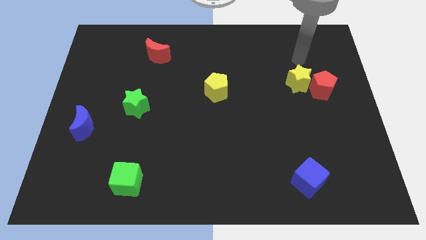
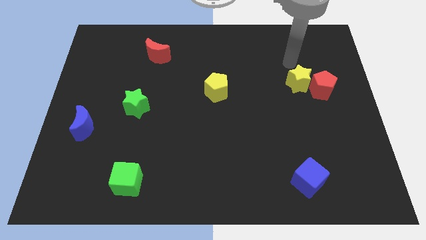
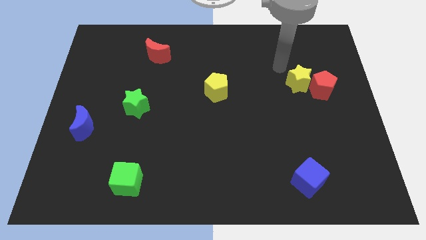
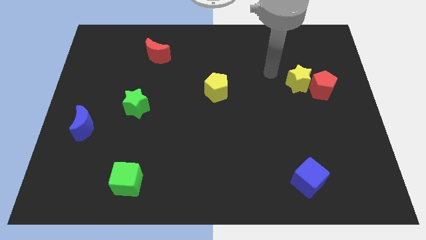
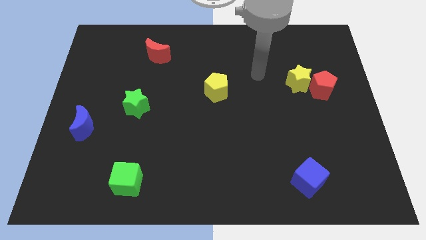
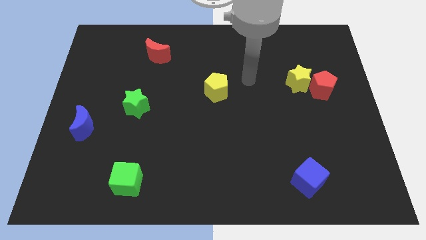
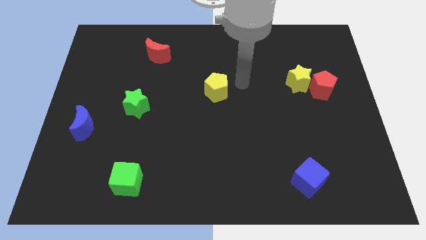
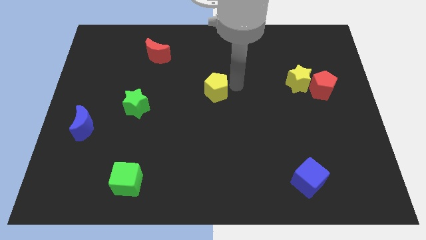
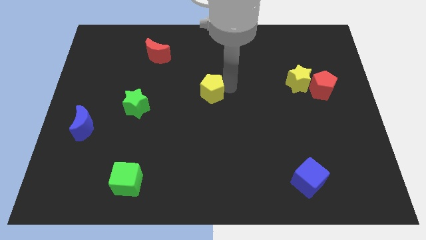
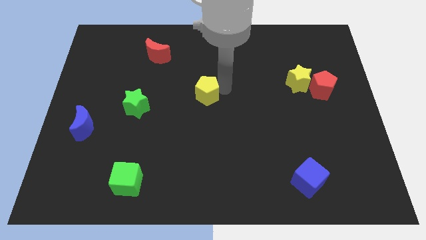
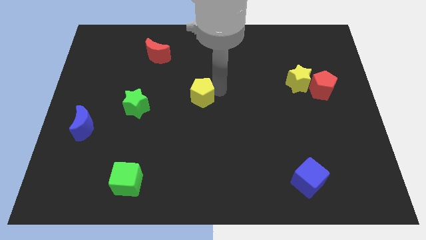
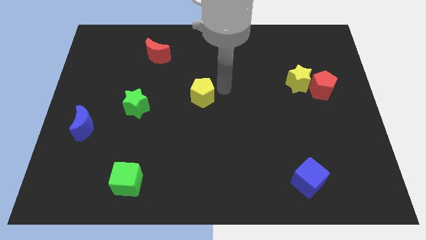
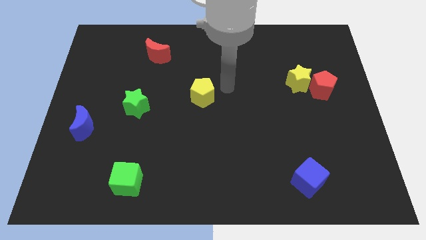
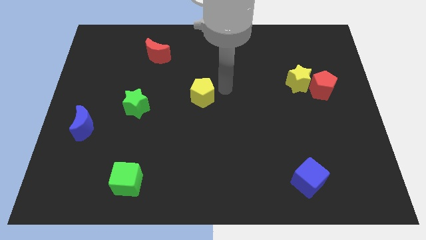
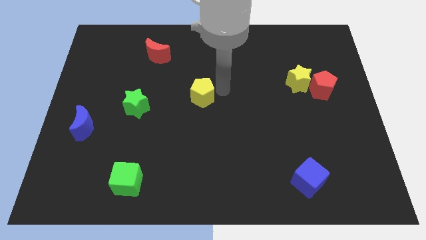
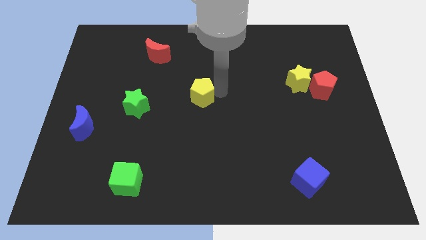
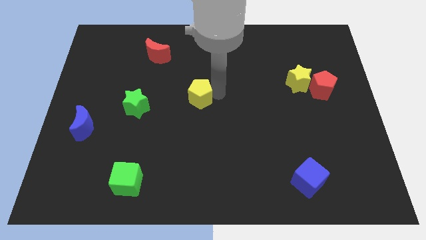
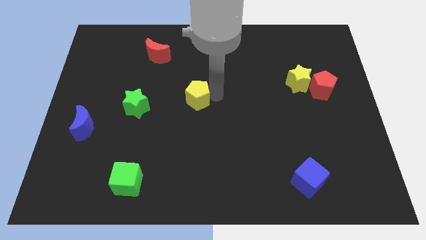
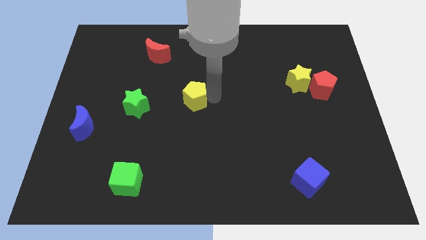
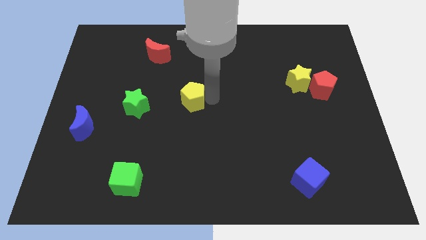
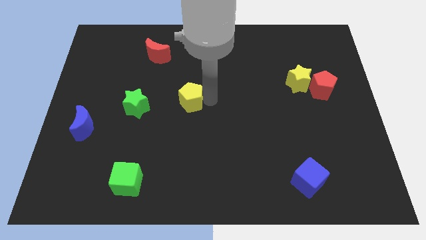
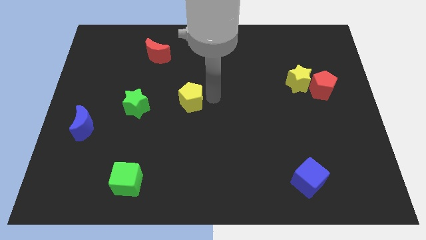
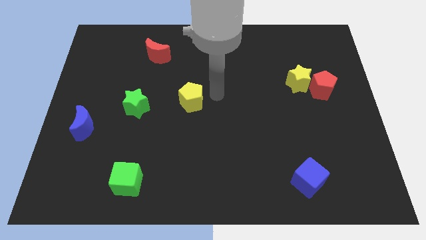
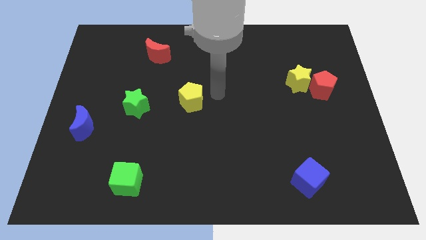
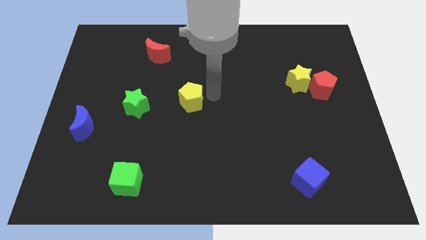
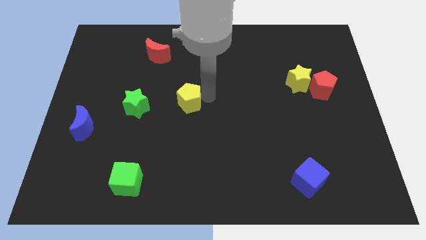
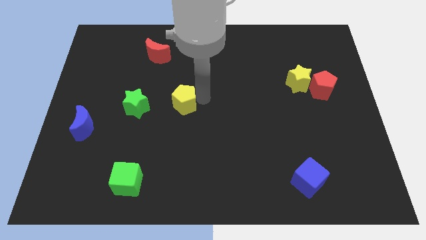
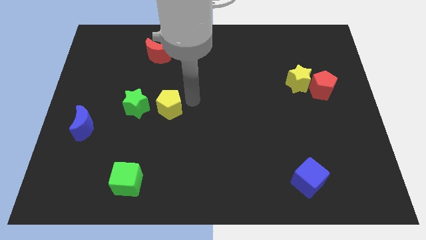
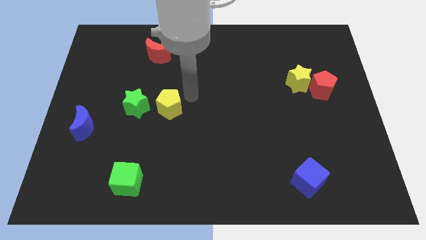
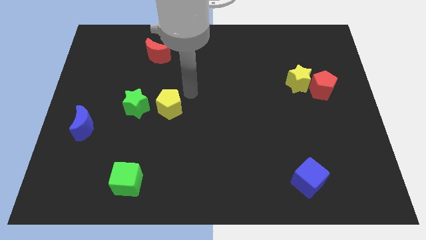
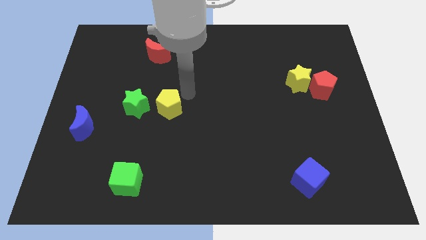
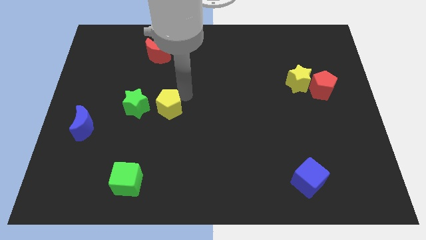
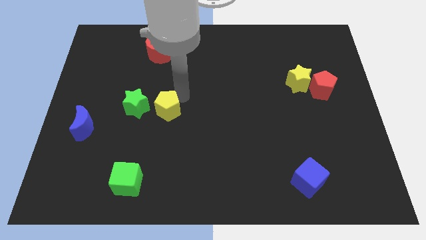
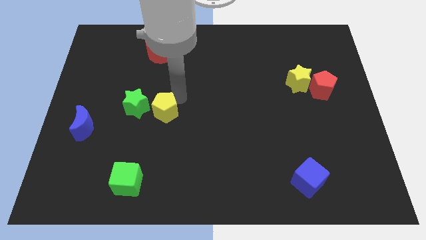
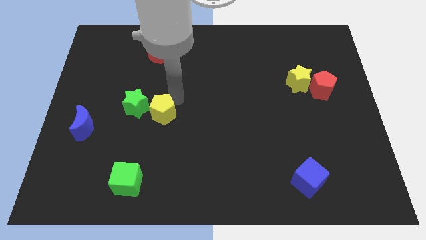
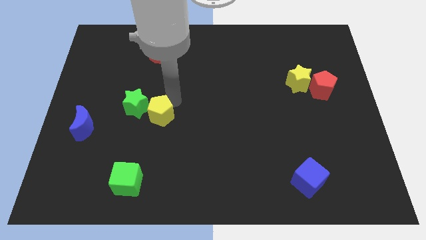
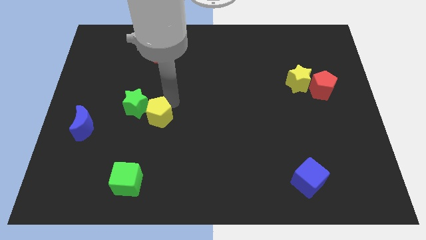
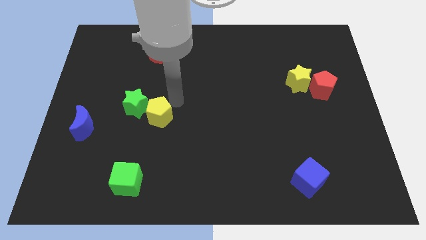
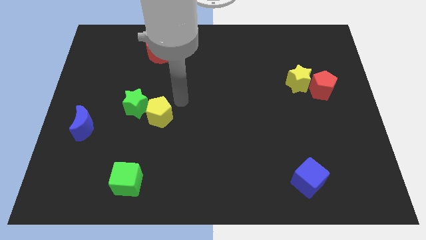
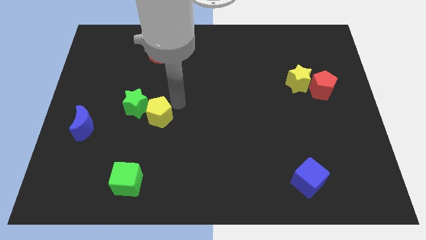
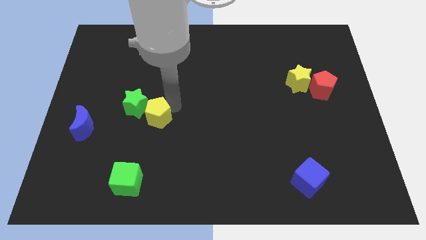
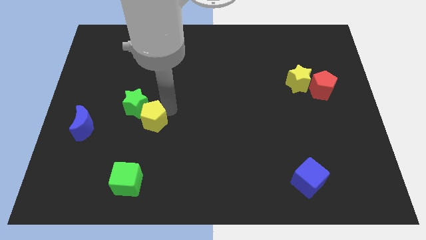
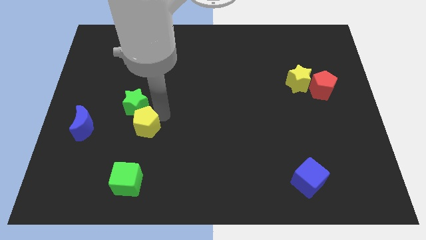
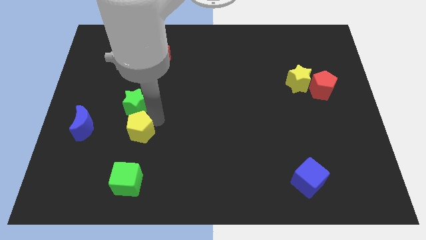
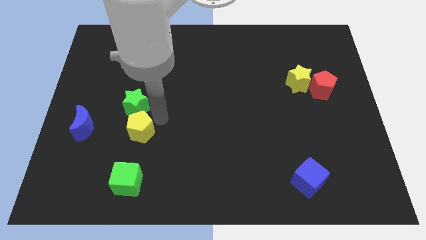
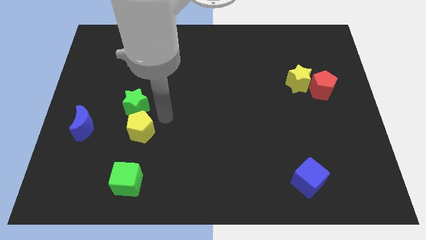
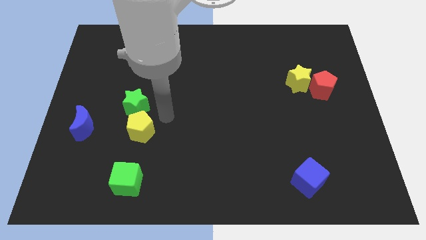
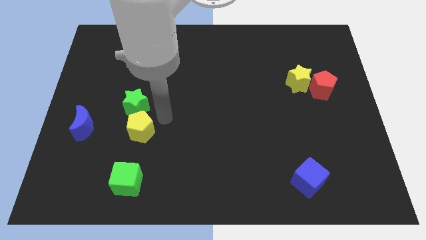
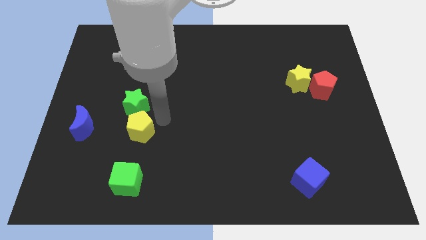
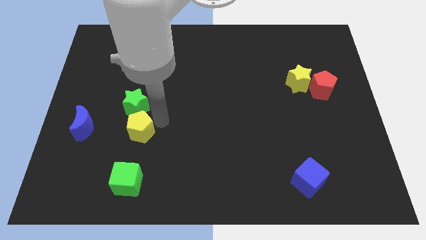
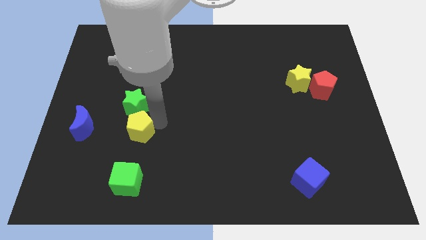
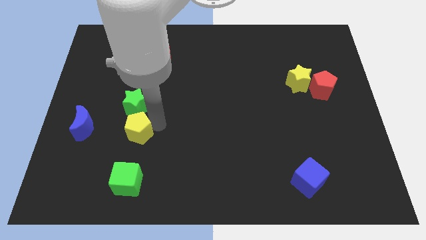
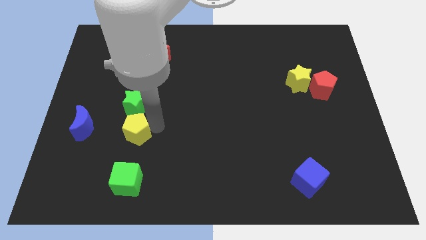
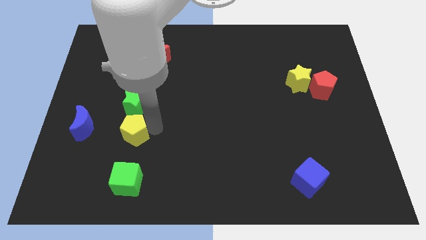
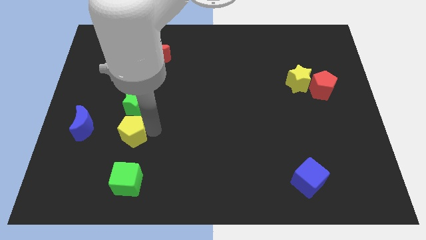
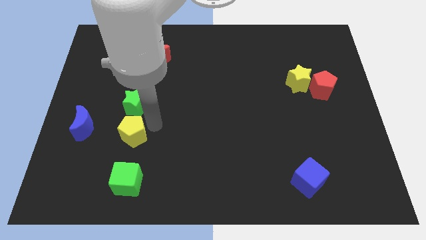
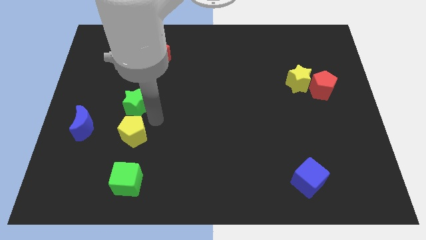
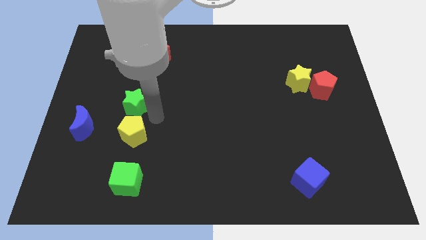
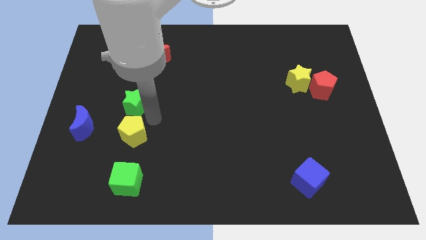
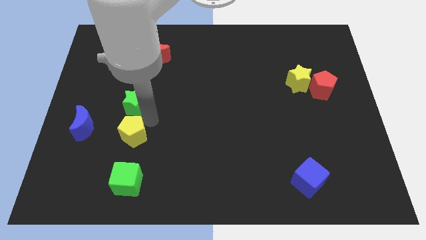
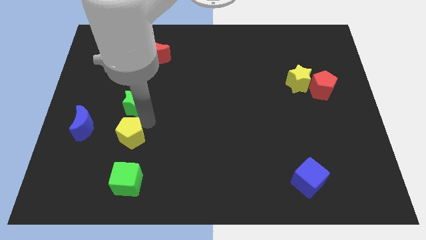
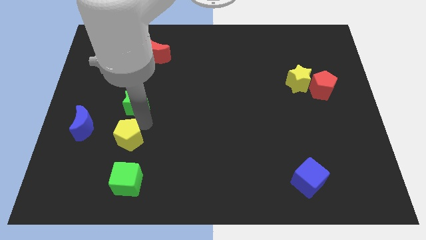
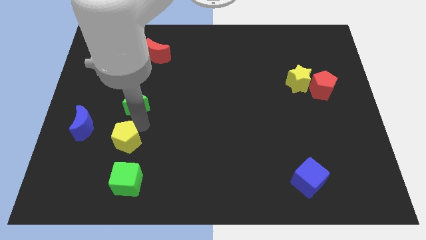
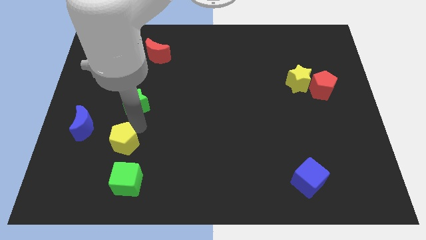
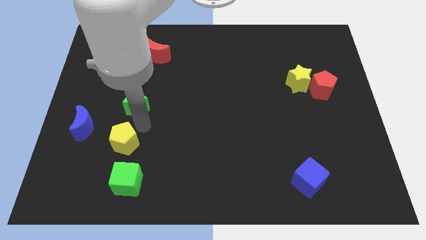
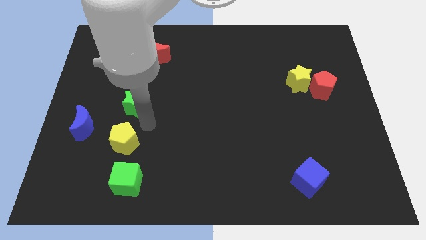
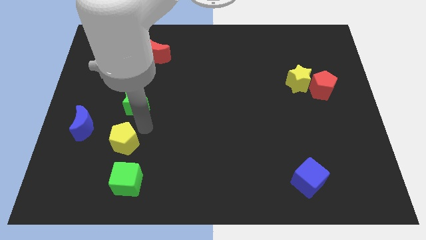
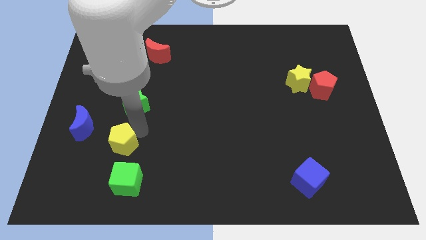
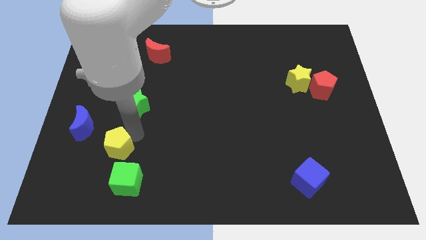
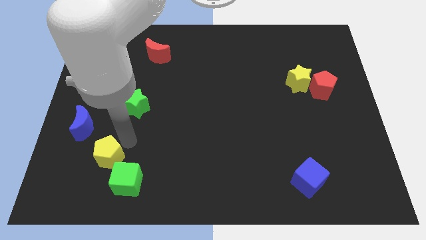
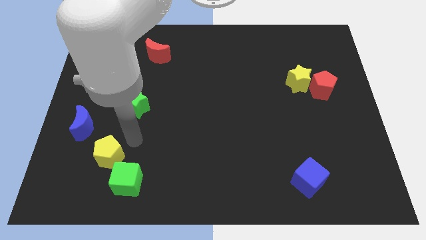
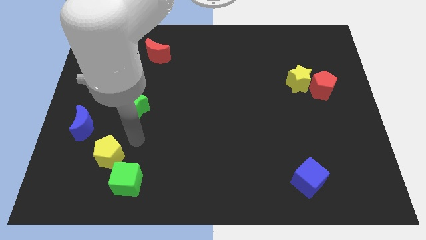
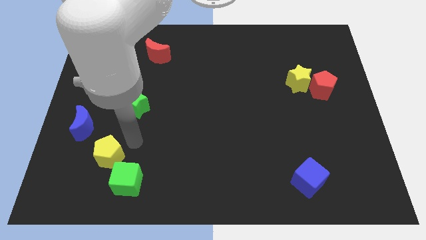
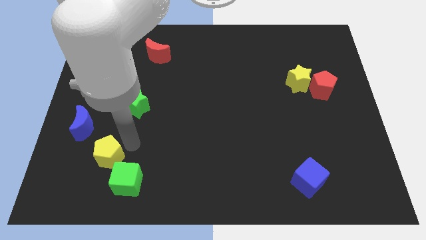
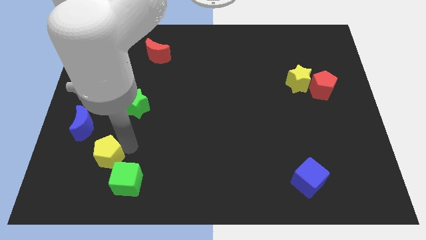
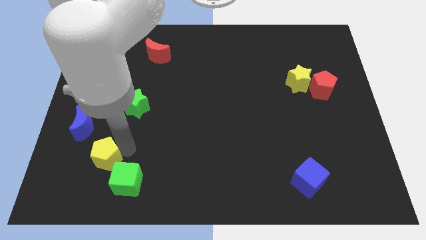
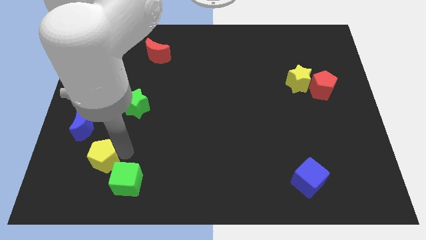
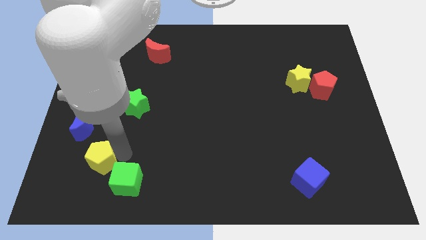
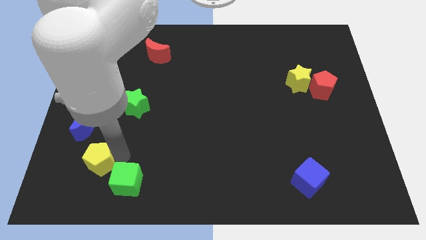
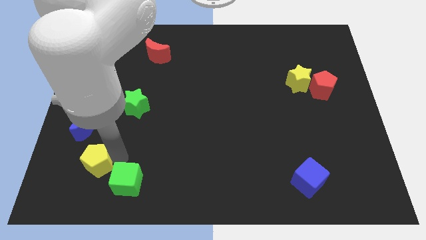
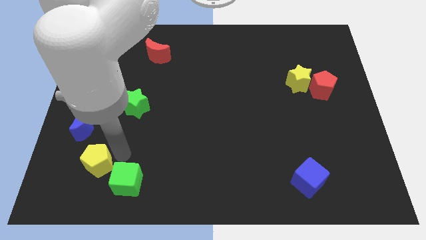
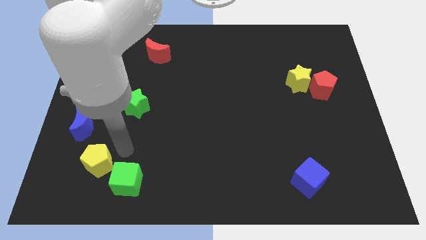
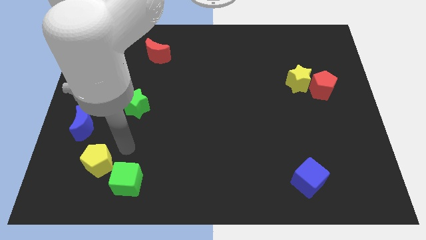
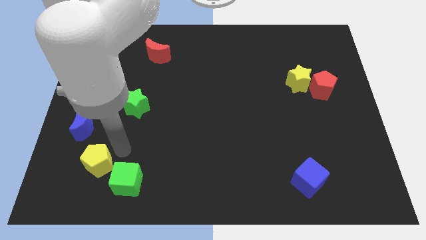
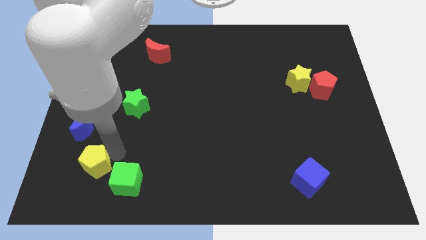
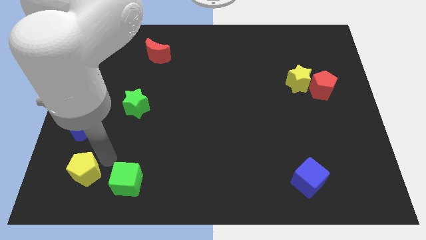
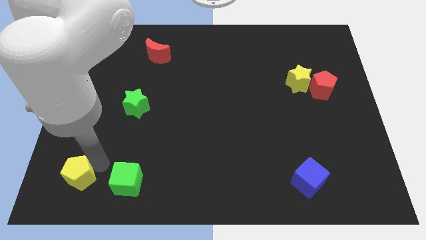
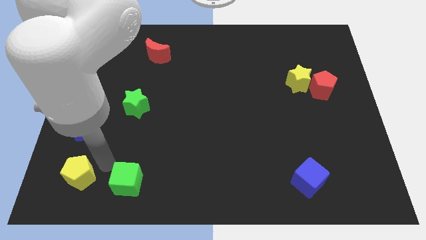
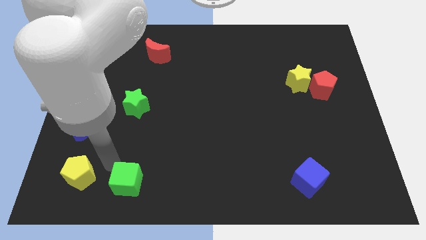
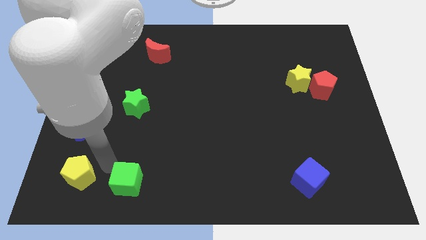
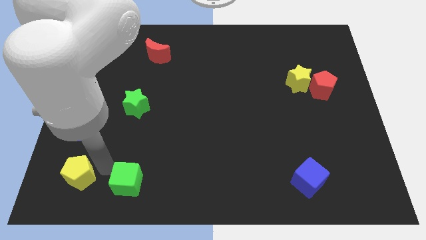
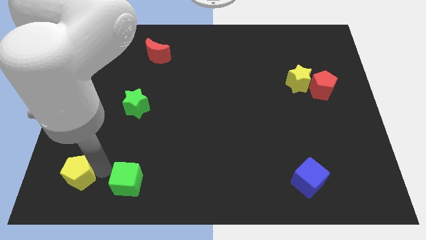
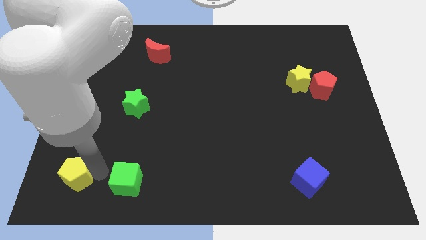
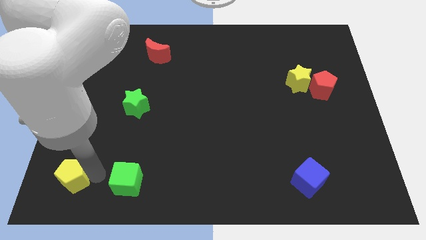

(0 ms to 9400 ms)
push the yellow pentagon to the lower left corner
